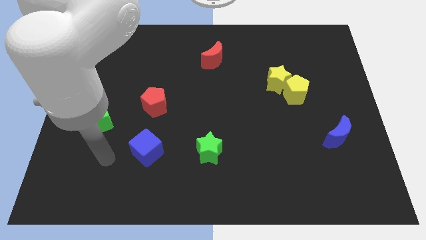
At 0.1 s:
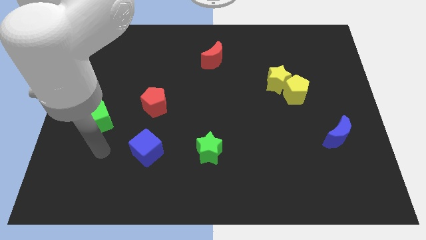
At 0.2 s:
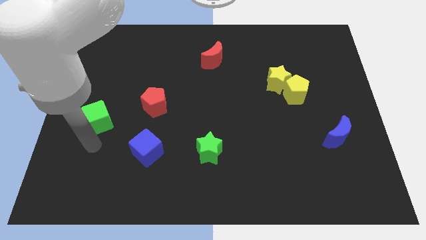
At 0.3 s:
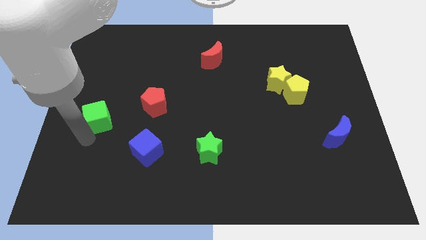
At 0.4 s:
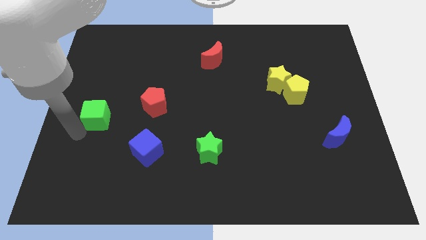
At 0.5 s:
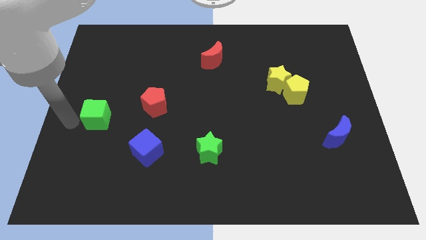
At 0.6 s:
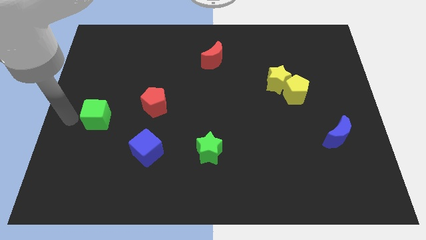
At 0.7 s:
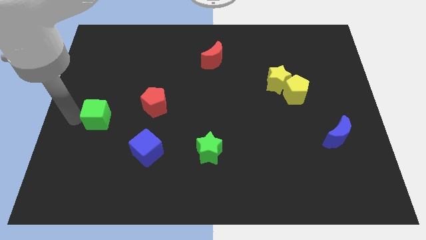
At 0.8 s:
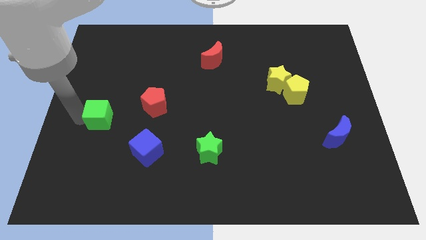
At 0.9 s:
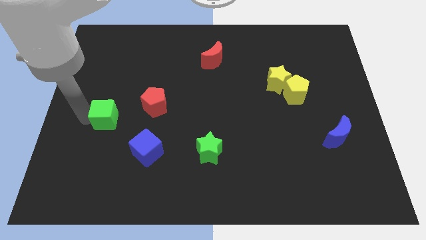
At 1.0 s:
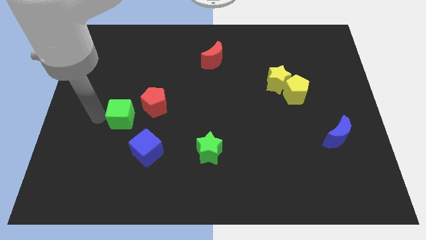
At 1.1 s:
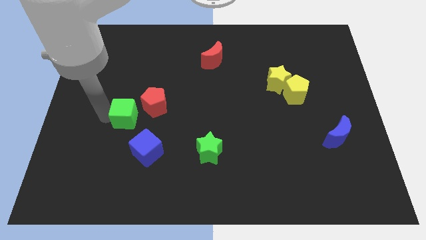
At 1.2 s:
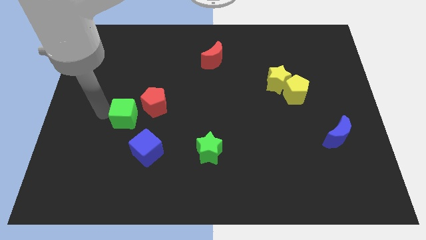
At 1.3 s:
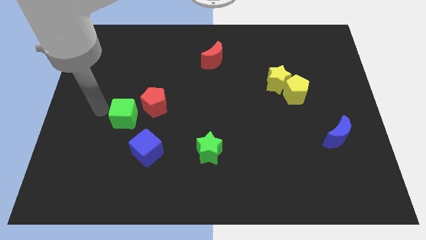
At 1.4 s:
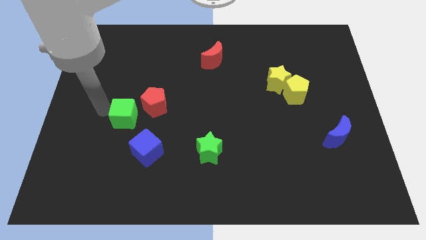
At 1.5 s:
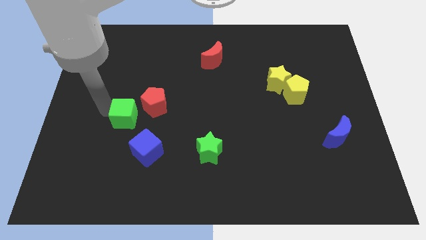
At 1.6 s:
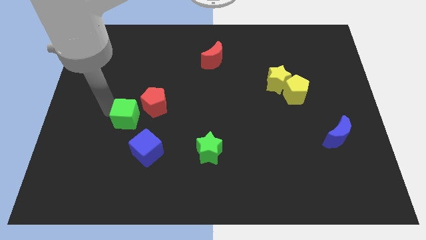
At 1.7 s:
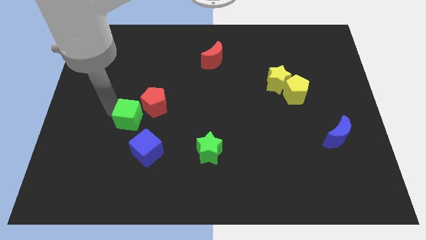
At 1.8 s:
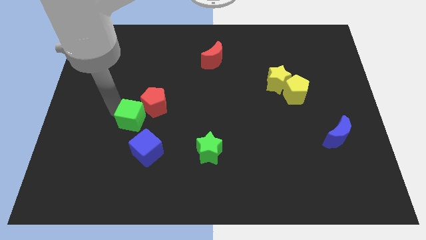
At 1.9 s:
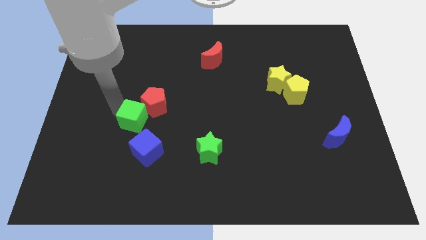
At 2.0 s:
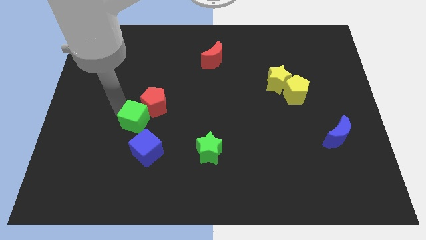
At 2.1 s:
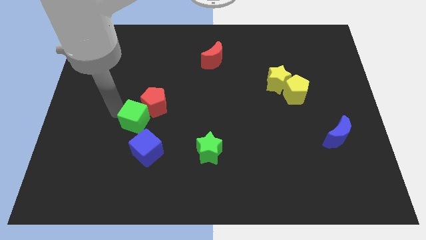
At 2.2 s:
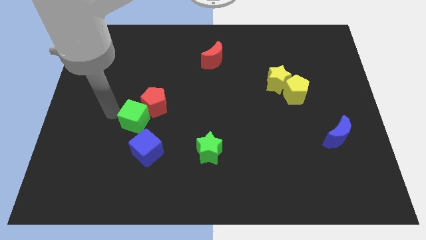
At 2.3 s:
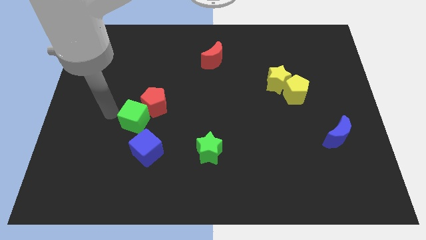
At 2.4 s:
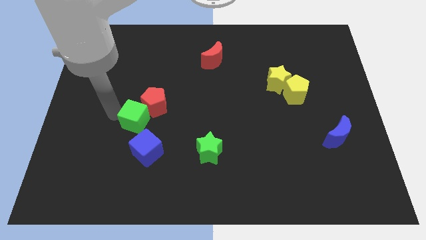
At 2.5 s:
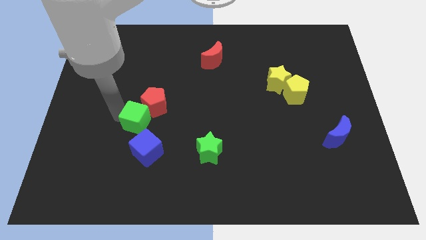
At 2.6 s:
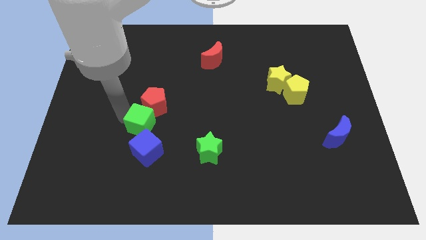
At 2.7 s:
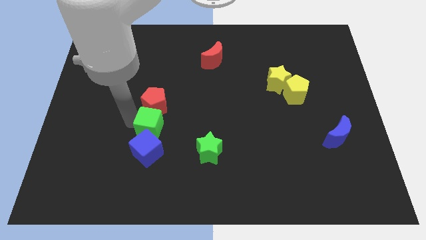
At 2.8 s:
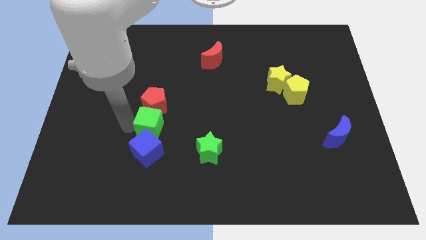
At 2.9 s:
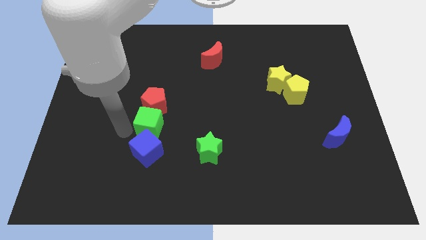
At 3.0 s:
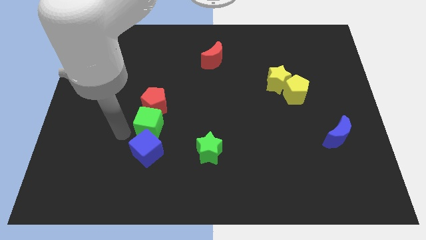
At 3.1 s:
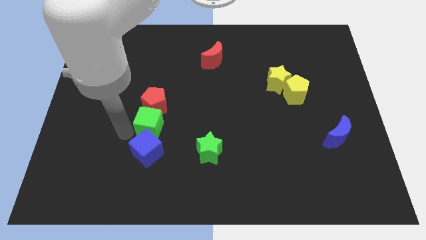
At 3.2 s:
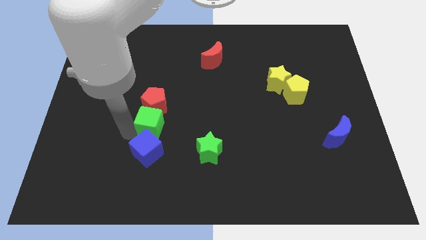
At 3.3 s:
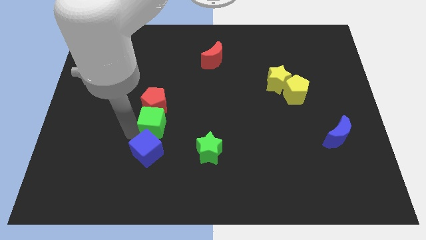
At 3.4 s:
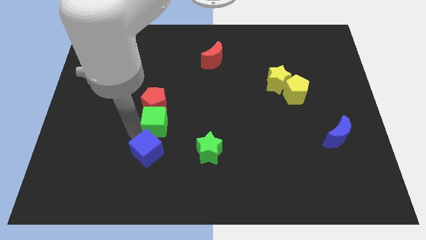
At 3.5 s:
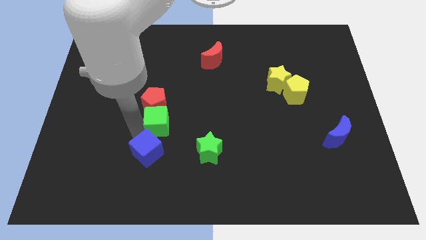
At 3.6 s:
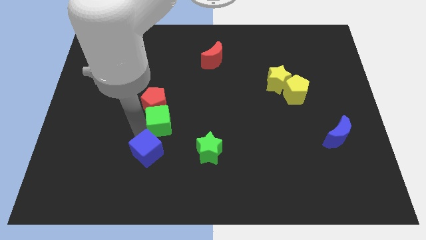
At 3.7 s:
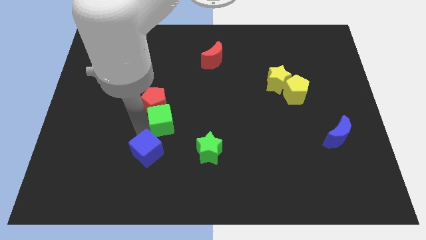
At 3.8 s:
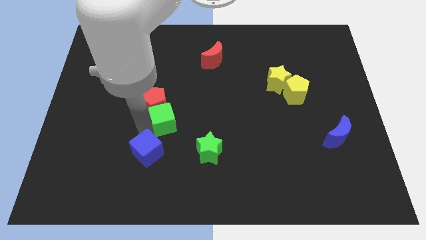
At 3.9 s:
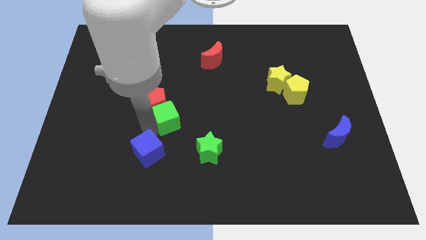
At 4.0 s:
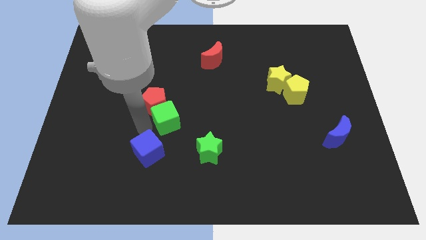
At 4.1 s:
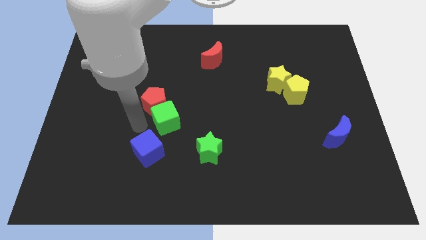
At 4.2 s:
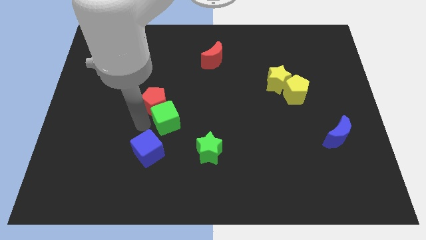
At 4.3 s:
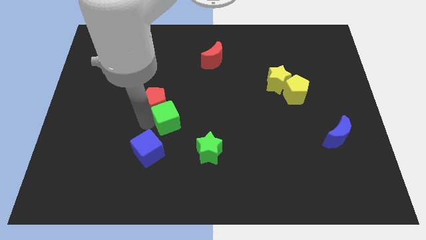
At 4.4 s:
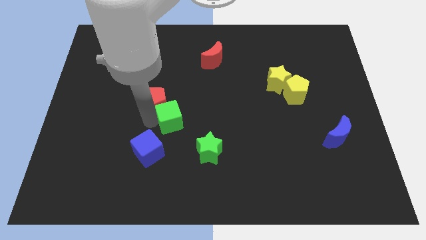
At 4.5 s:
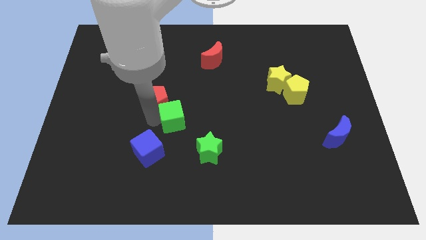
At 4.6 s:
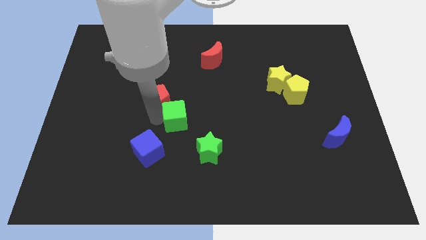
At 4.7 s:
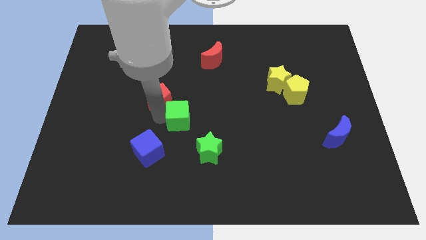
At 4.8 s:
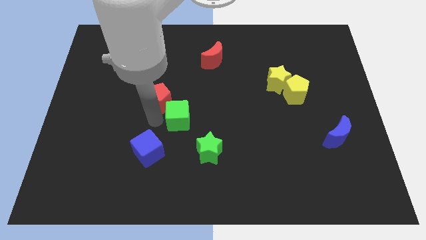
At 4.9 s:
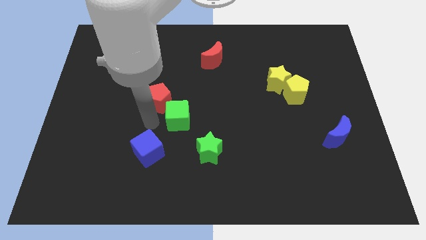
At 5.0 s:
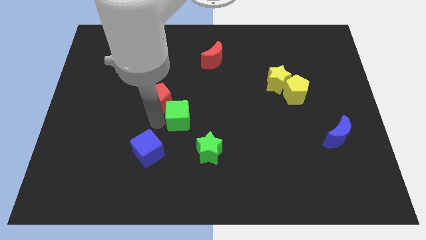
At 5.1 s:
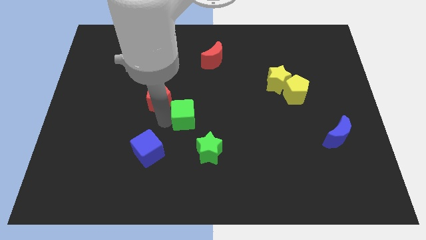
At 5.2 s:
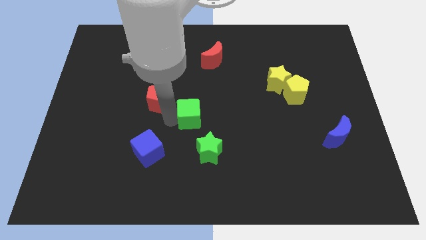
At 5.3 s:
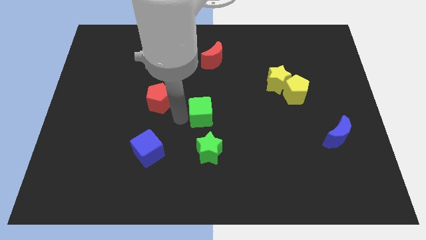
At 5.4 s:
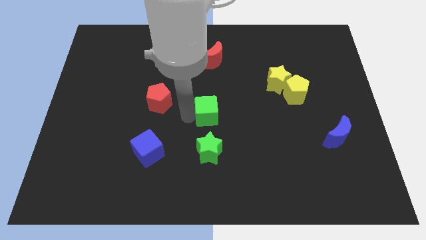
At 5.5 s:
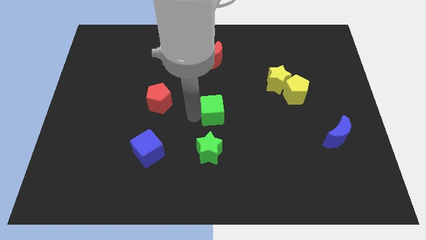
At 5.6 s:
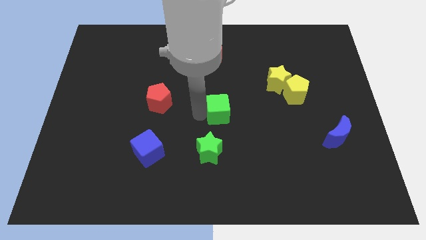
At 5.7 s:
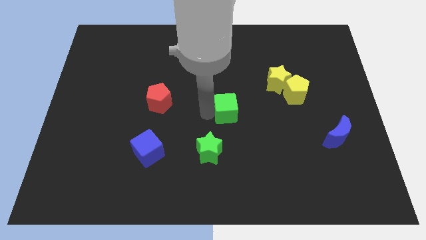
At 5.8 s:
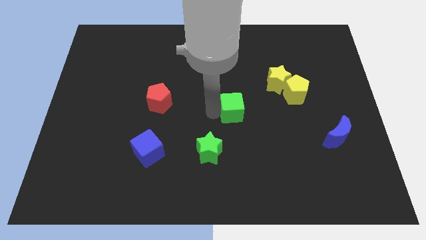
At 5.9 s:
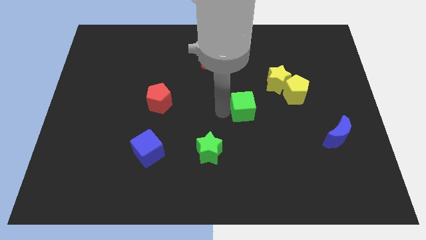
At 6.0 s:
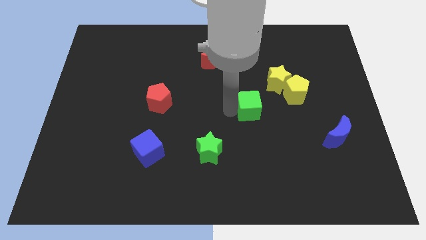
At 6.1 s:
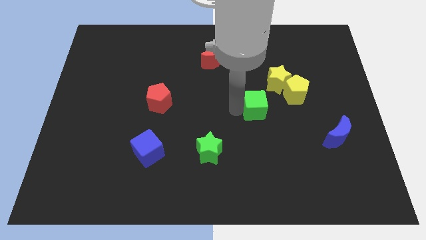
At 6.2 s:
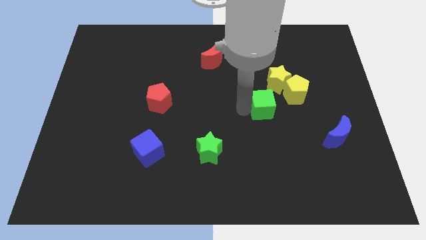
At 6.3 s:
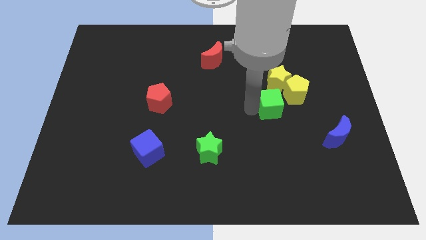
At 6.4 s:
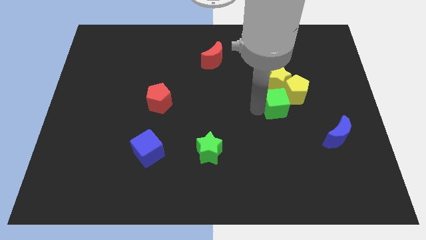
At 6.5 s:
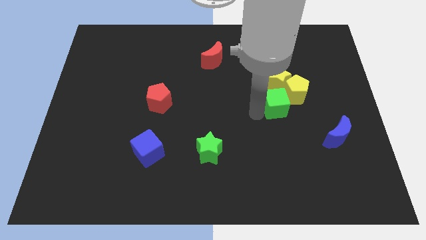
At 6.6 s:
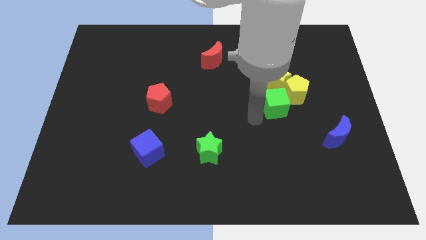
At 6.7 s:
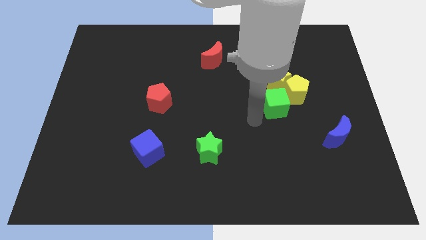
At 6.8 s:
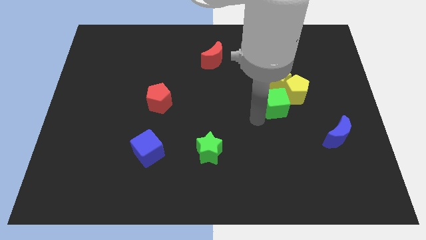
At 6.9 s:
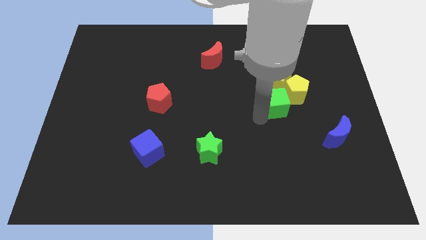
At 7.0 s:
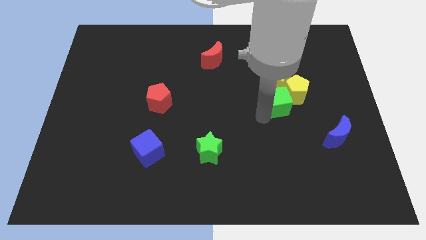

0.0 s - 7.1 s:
put the green cube towards the yellow pentagon
